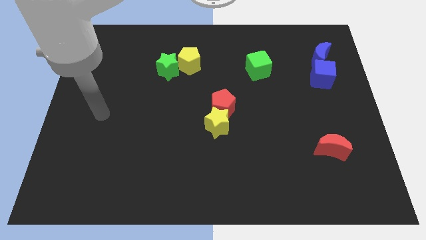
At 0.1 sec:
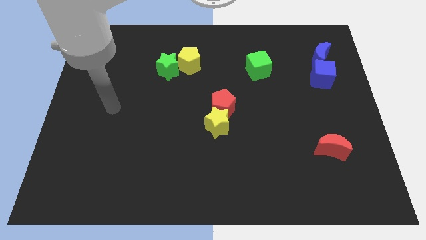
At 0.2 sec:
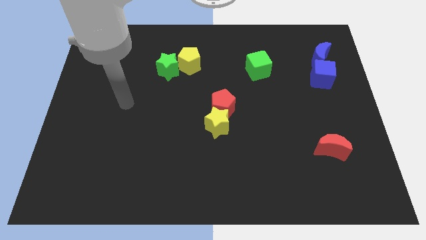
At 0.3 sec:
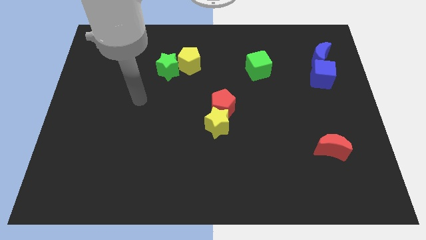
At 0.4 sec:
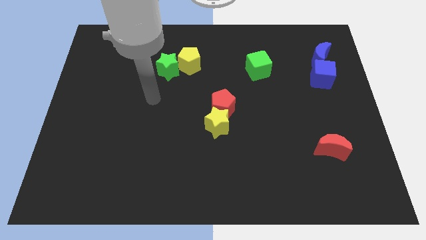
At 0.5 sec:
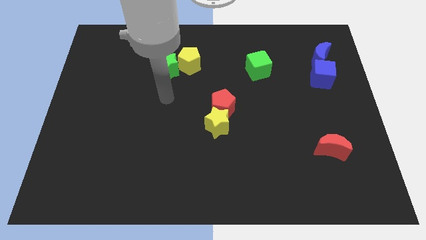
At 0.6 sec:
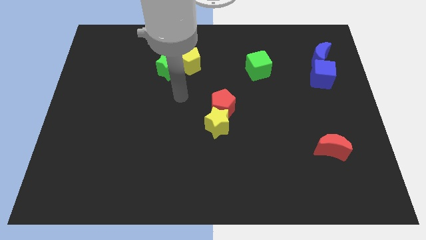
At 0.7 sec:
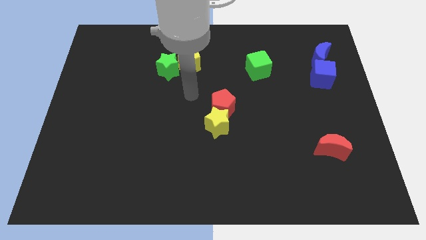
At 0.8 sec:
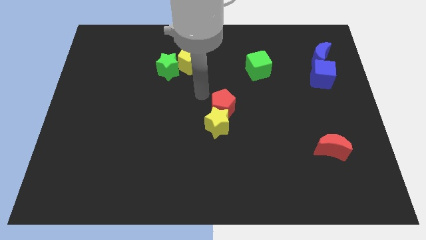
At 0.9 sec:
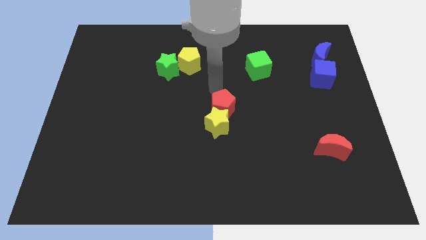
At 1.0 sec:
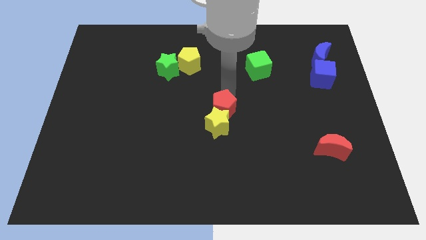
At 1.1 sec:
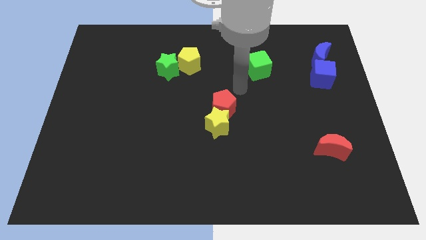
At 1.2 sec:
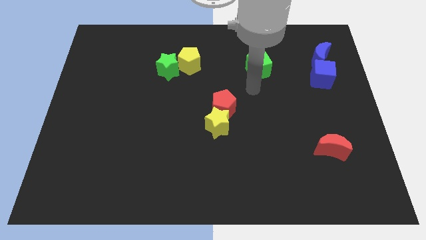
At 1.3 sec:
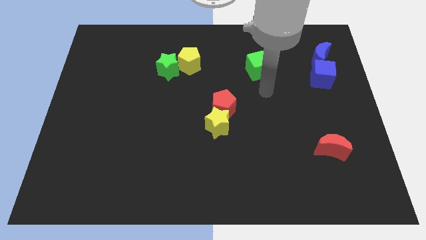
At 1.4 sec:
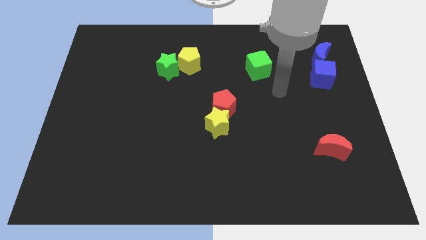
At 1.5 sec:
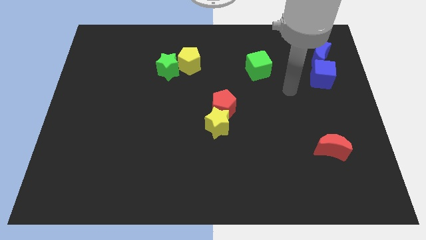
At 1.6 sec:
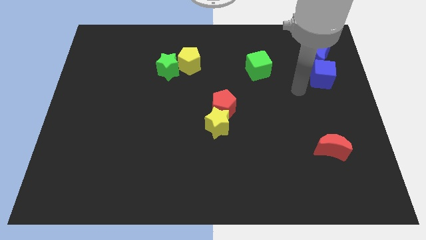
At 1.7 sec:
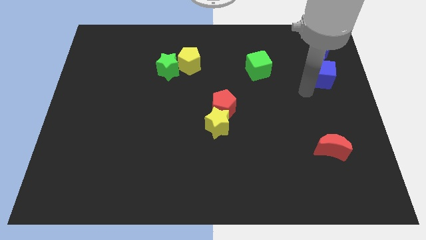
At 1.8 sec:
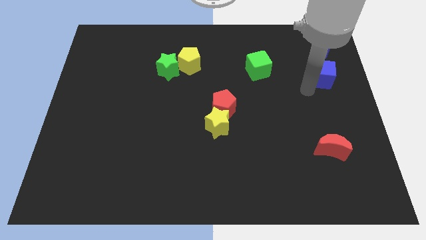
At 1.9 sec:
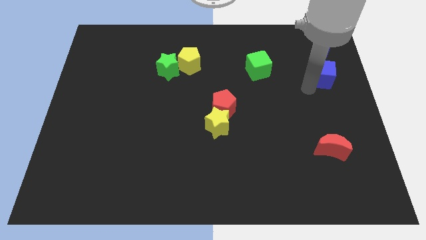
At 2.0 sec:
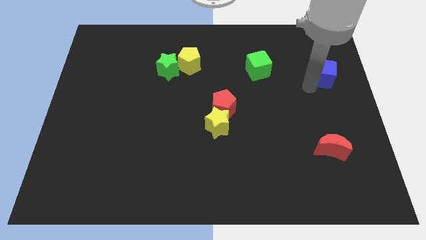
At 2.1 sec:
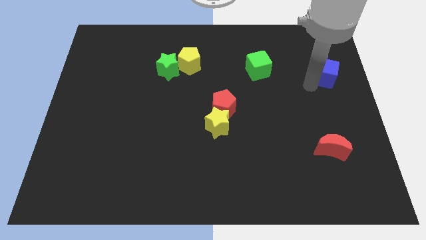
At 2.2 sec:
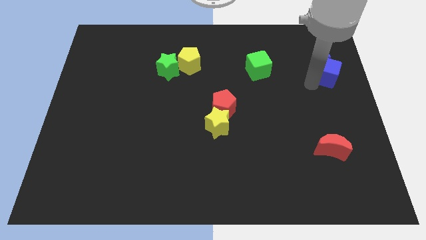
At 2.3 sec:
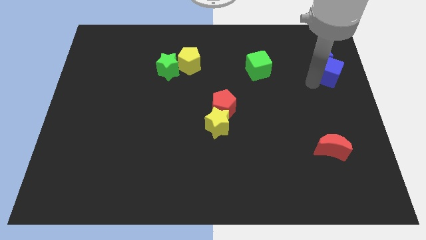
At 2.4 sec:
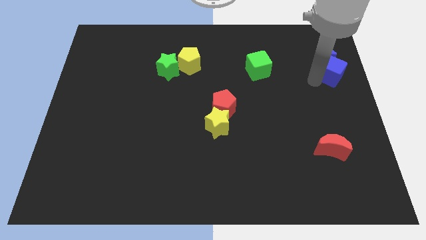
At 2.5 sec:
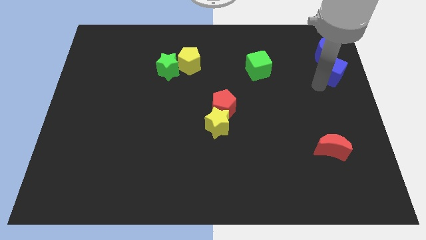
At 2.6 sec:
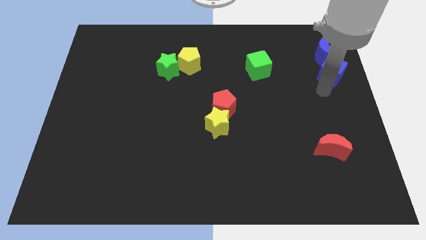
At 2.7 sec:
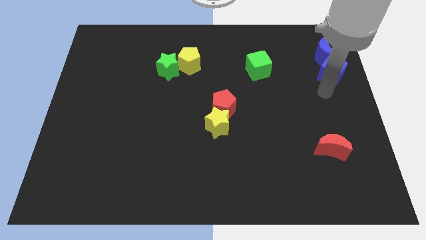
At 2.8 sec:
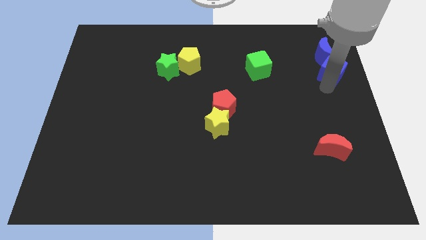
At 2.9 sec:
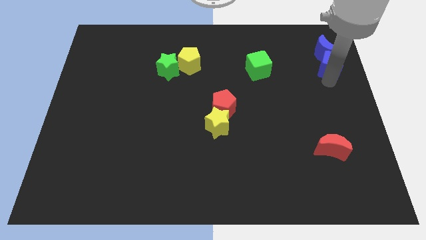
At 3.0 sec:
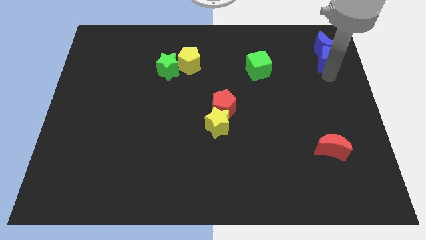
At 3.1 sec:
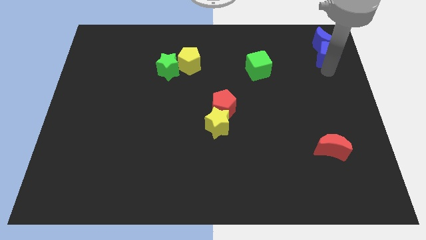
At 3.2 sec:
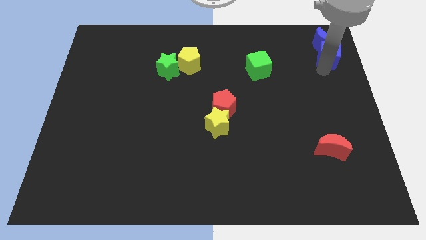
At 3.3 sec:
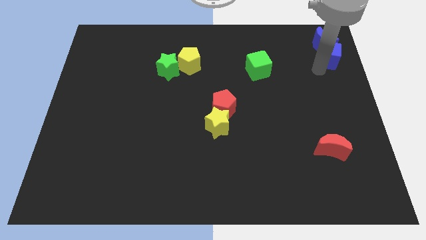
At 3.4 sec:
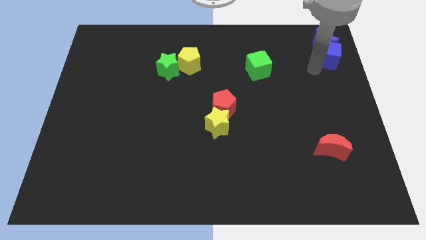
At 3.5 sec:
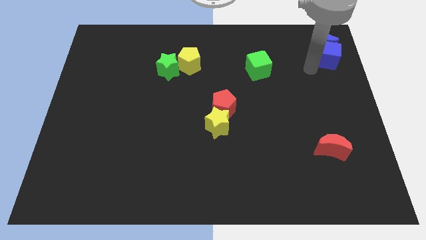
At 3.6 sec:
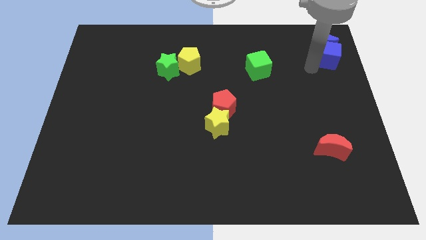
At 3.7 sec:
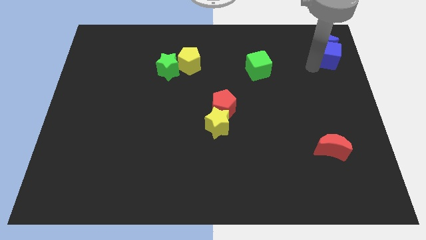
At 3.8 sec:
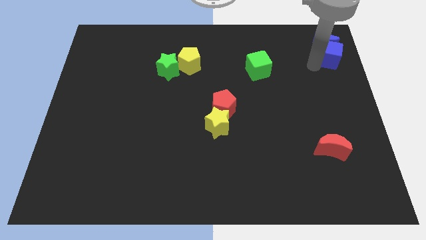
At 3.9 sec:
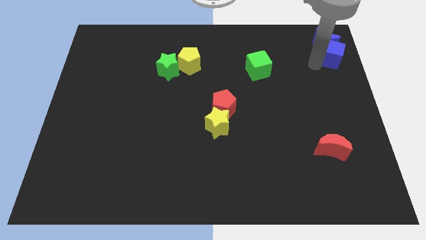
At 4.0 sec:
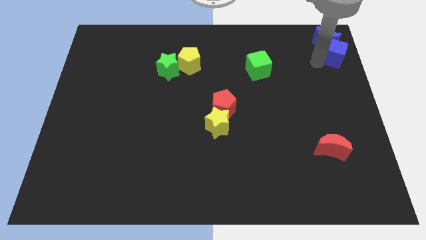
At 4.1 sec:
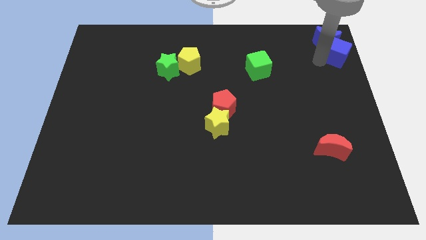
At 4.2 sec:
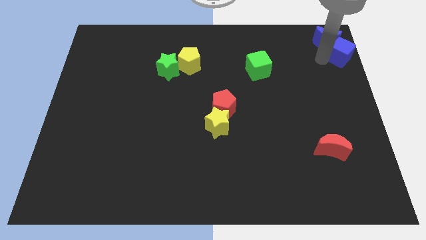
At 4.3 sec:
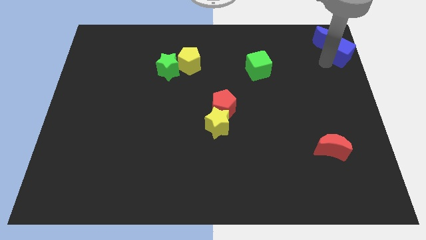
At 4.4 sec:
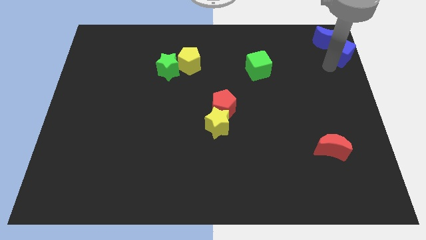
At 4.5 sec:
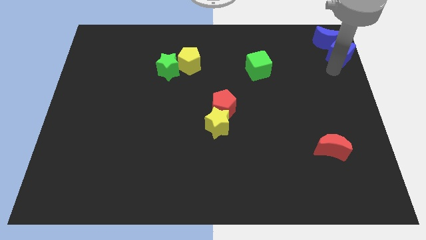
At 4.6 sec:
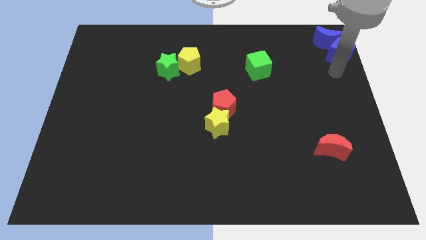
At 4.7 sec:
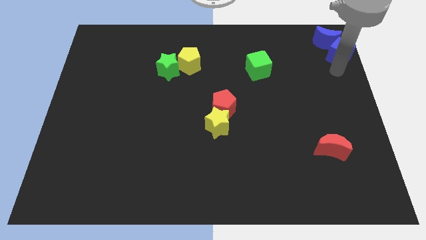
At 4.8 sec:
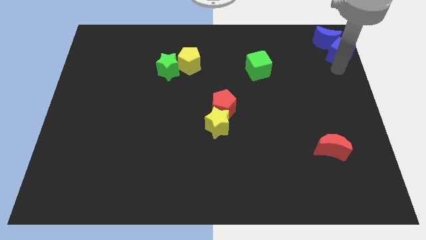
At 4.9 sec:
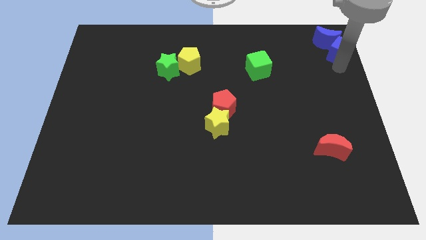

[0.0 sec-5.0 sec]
push the blue cube to the top right

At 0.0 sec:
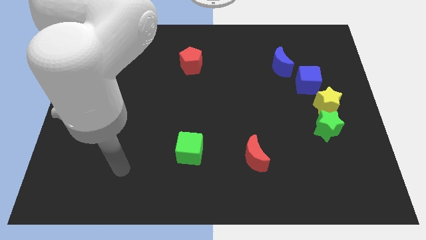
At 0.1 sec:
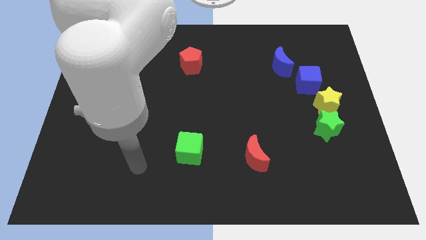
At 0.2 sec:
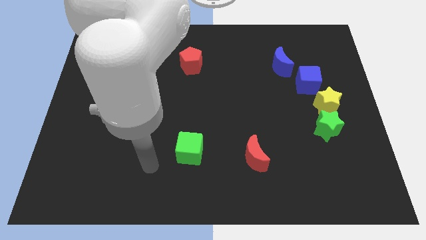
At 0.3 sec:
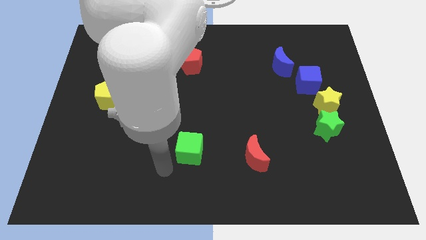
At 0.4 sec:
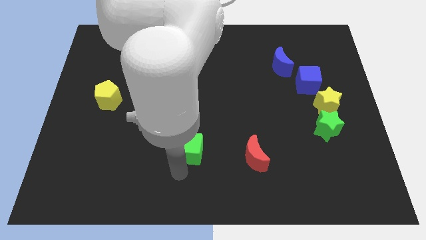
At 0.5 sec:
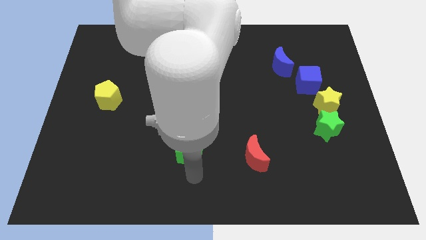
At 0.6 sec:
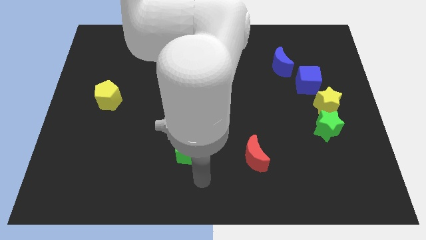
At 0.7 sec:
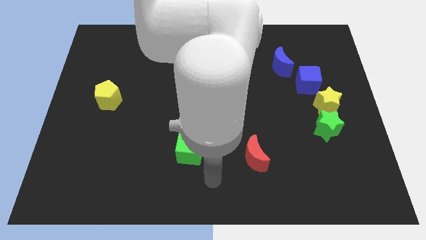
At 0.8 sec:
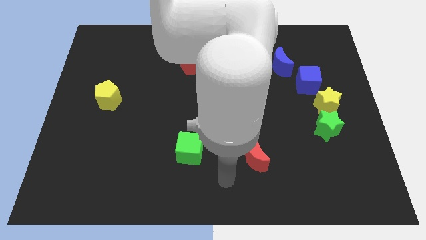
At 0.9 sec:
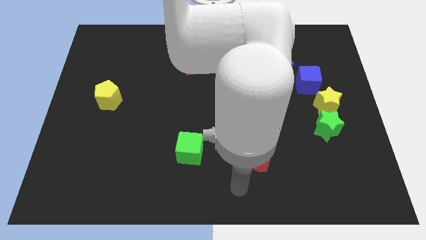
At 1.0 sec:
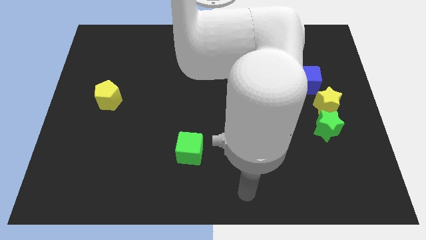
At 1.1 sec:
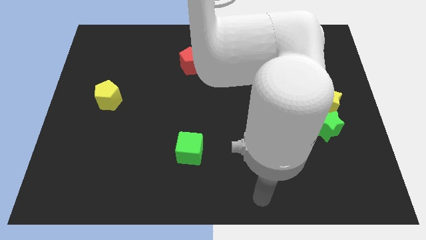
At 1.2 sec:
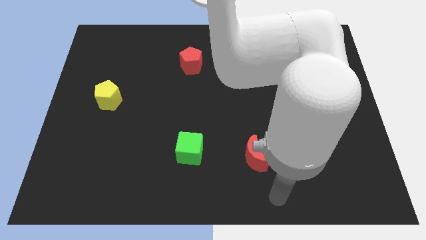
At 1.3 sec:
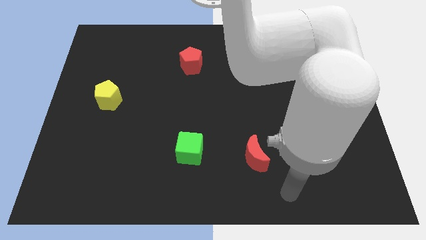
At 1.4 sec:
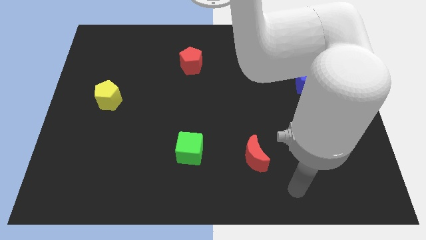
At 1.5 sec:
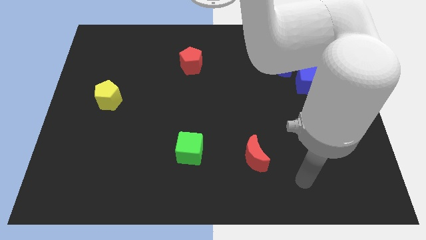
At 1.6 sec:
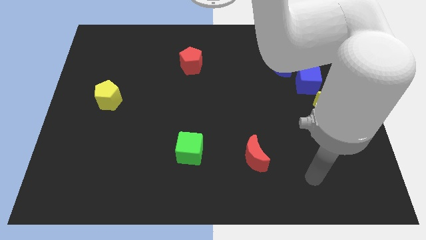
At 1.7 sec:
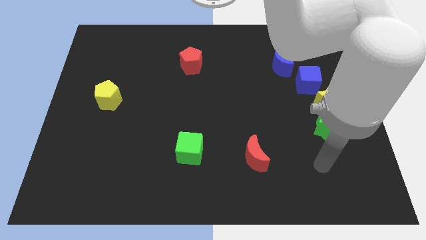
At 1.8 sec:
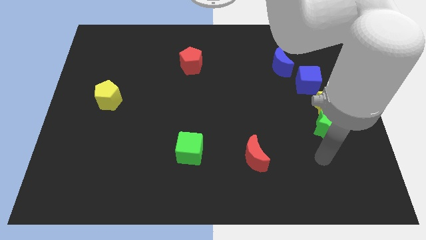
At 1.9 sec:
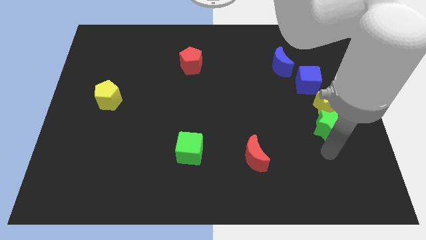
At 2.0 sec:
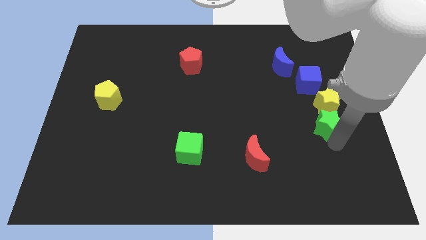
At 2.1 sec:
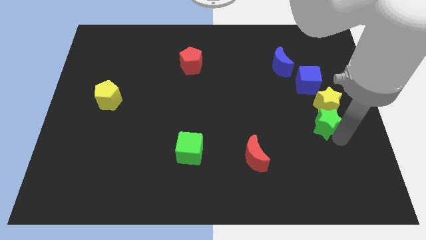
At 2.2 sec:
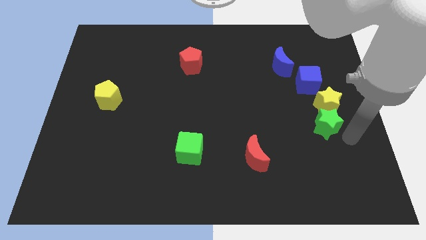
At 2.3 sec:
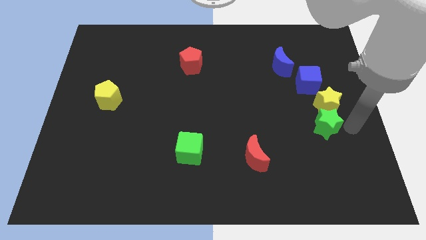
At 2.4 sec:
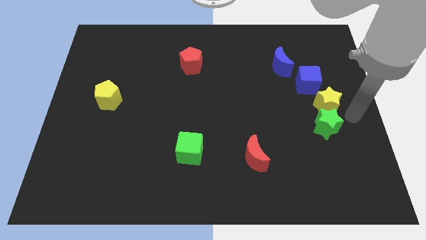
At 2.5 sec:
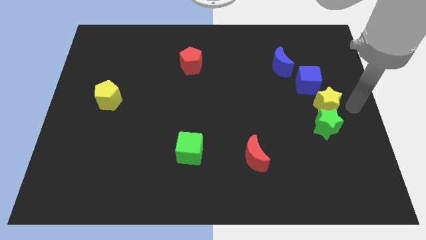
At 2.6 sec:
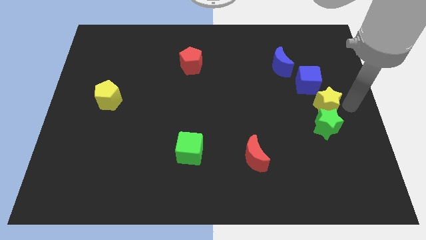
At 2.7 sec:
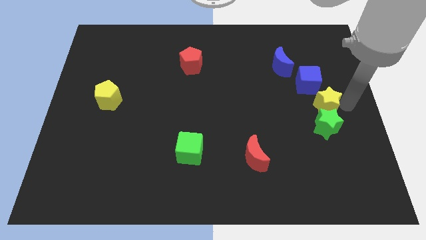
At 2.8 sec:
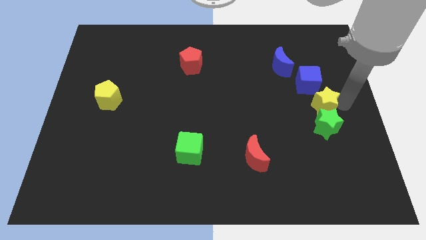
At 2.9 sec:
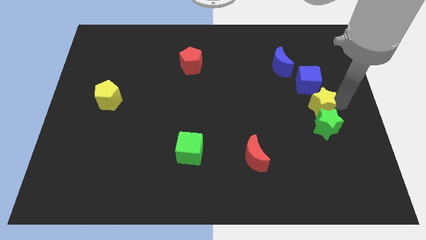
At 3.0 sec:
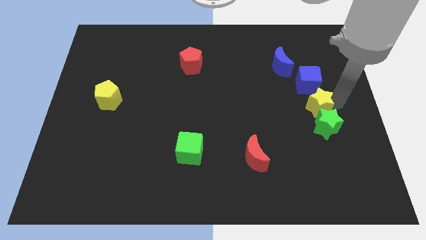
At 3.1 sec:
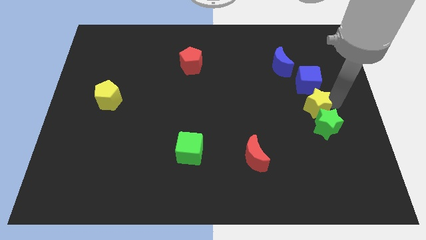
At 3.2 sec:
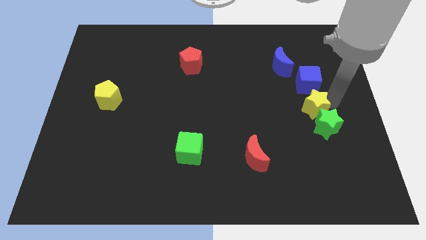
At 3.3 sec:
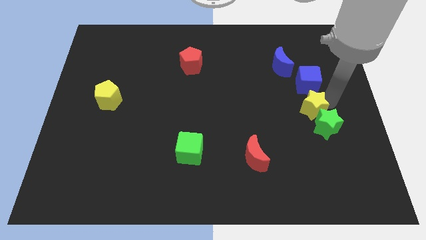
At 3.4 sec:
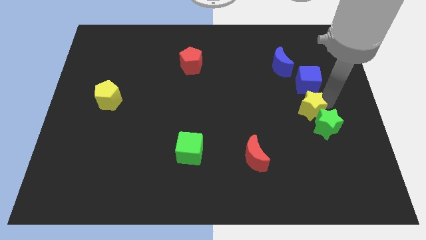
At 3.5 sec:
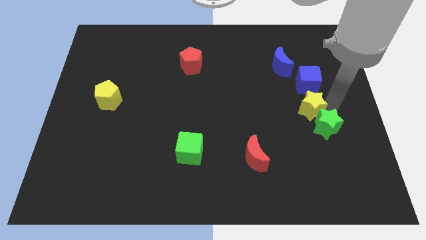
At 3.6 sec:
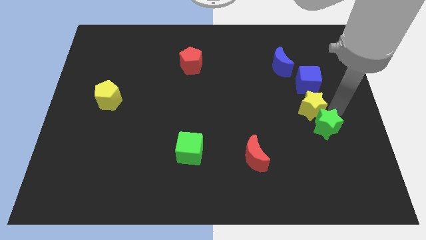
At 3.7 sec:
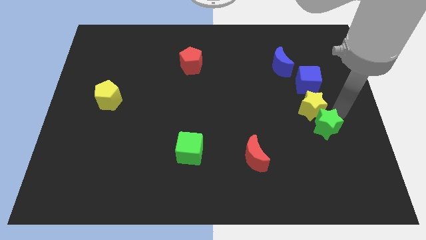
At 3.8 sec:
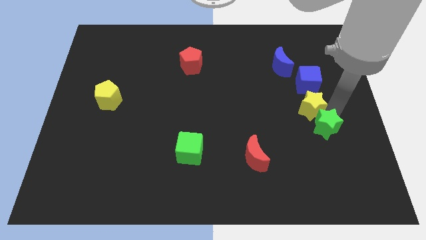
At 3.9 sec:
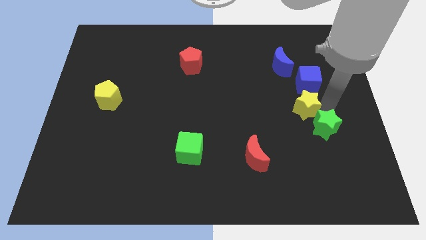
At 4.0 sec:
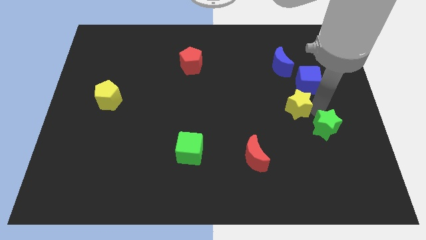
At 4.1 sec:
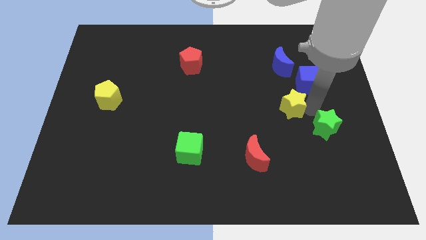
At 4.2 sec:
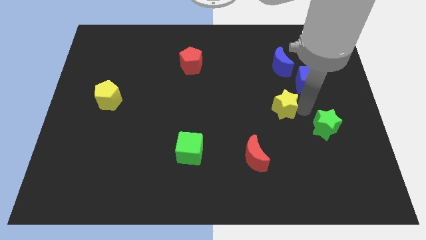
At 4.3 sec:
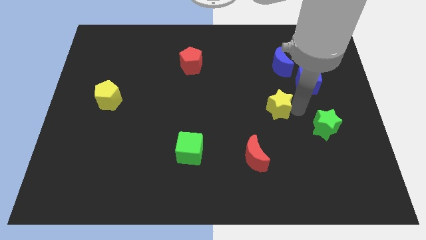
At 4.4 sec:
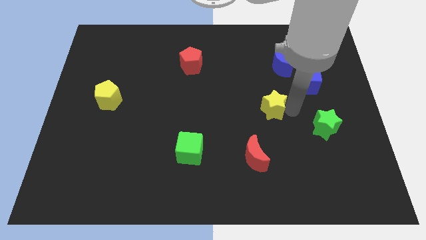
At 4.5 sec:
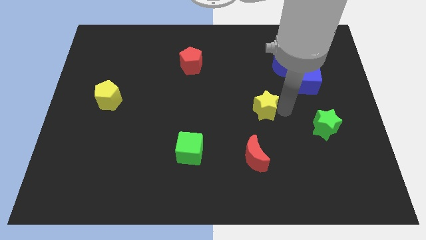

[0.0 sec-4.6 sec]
slide the yellow star to the center
